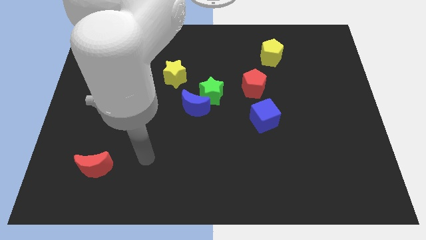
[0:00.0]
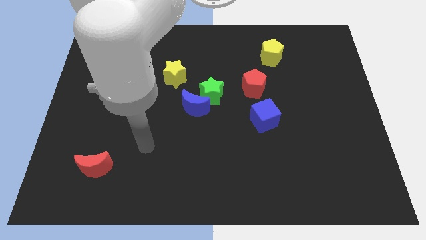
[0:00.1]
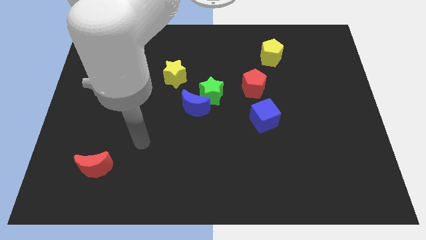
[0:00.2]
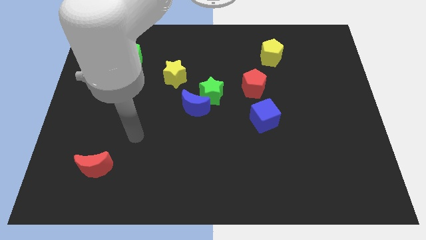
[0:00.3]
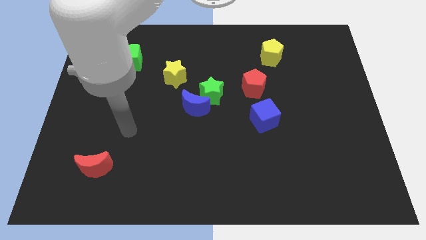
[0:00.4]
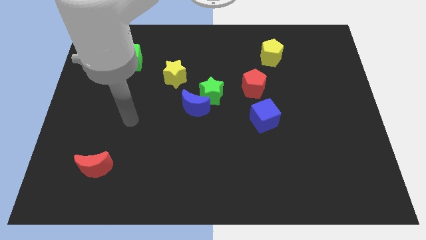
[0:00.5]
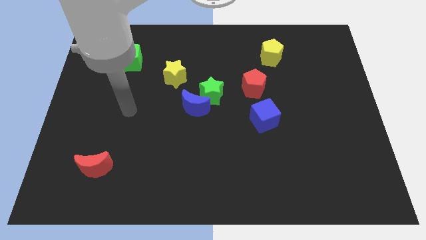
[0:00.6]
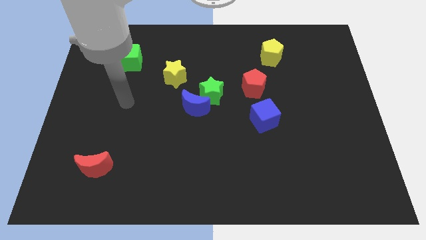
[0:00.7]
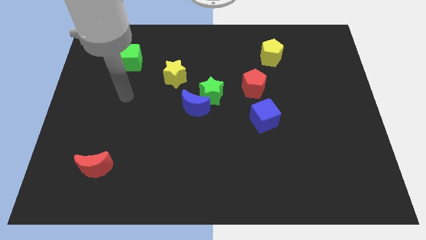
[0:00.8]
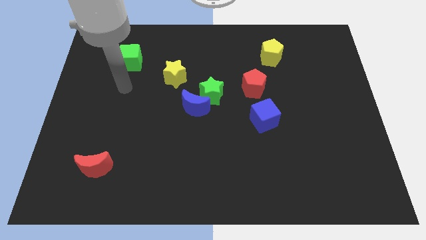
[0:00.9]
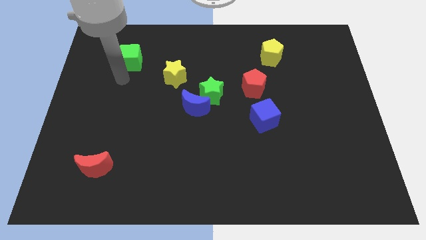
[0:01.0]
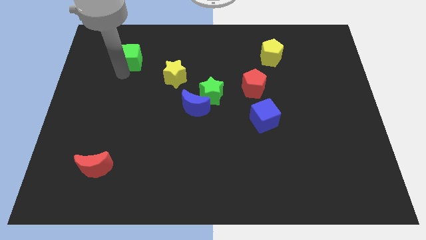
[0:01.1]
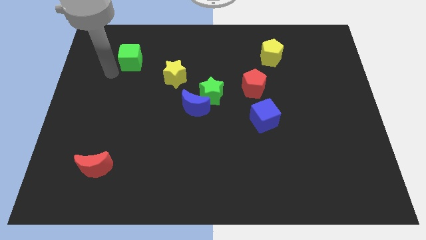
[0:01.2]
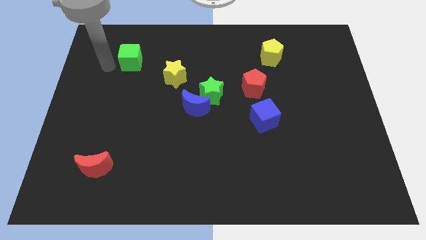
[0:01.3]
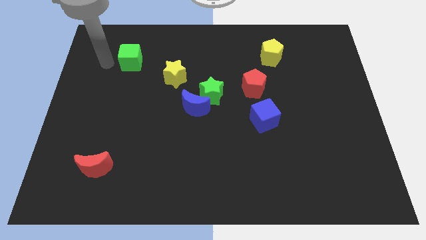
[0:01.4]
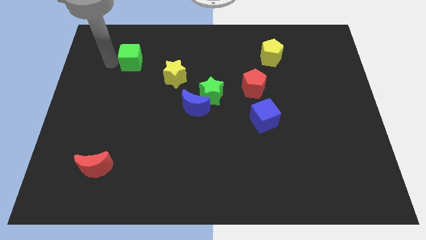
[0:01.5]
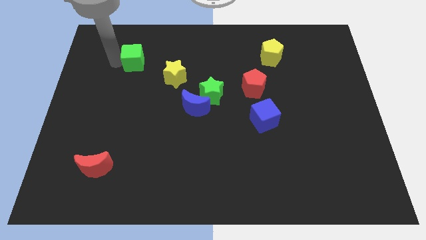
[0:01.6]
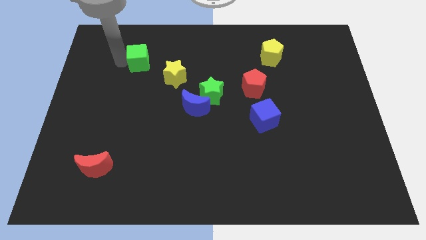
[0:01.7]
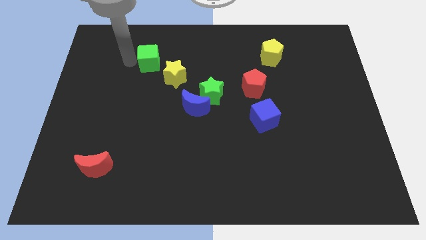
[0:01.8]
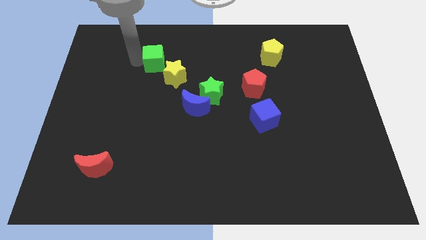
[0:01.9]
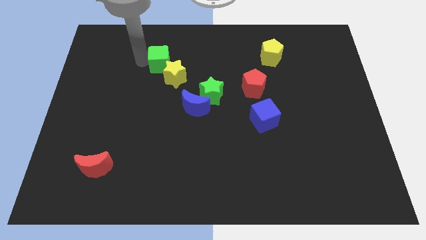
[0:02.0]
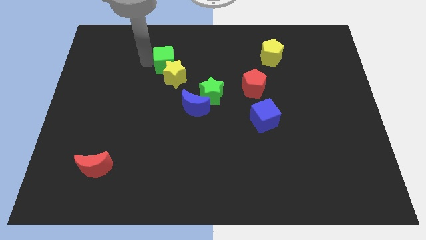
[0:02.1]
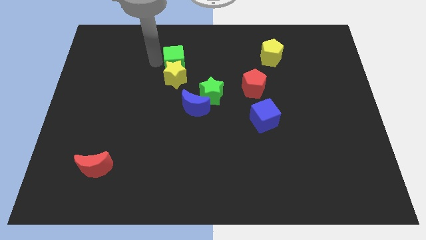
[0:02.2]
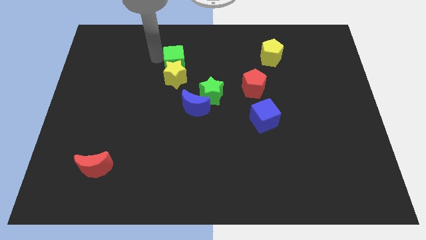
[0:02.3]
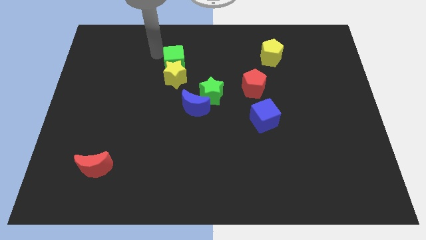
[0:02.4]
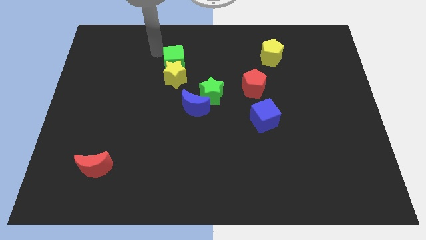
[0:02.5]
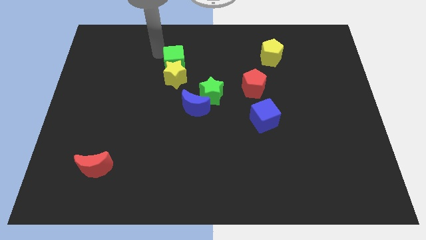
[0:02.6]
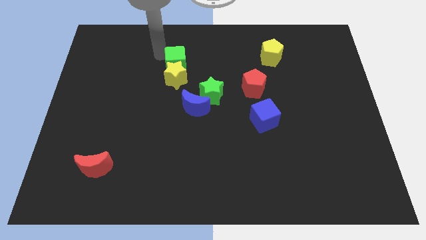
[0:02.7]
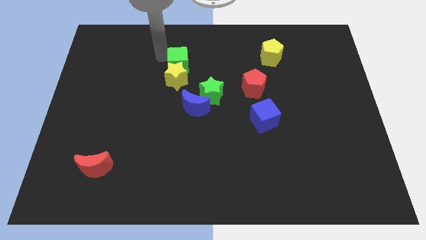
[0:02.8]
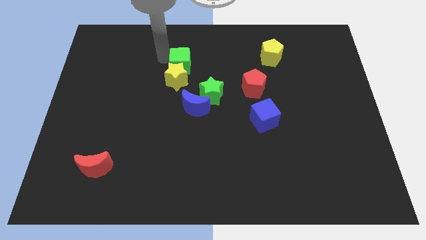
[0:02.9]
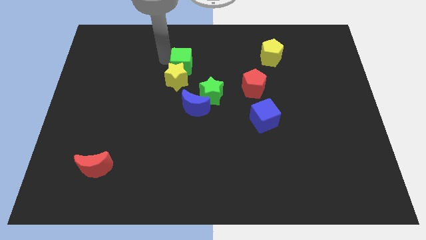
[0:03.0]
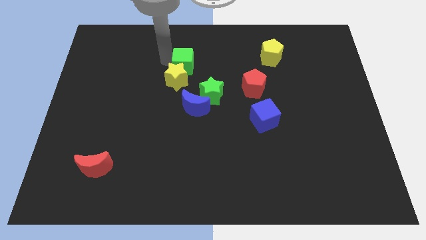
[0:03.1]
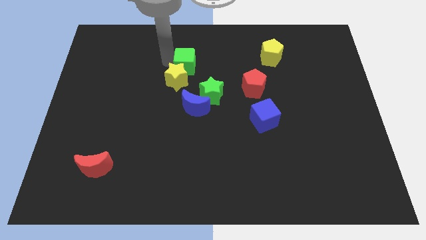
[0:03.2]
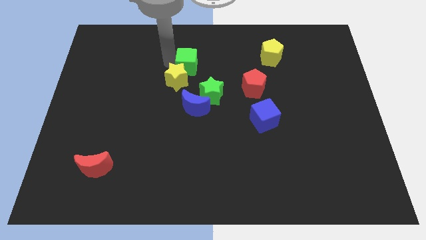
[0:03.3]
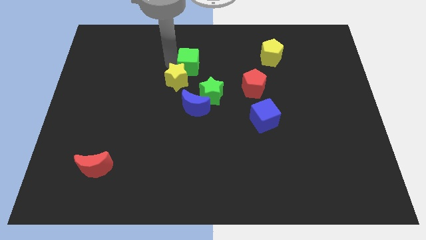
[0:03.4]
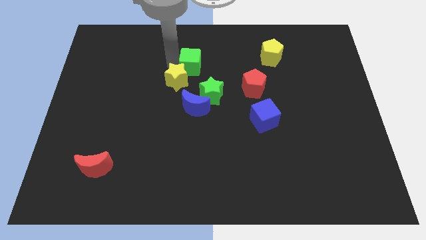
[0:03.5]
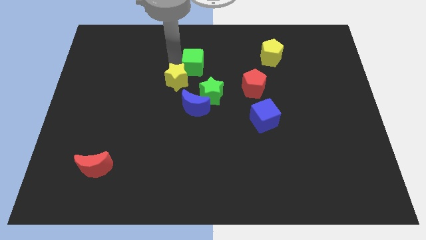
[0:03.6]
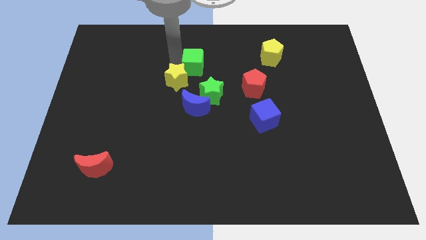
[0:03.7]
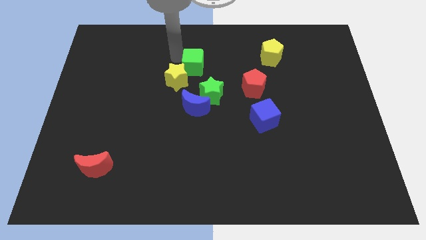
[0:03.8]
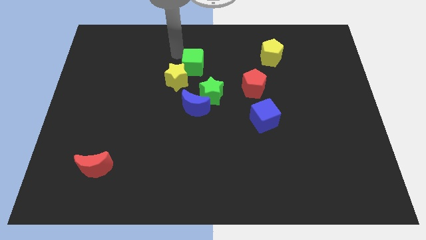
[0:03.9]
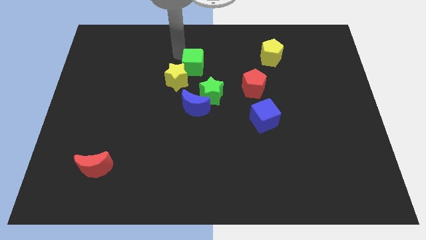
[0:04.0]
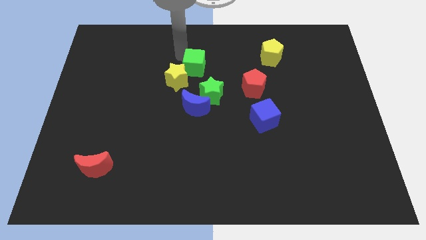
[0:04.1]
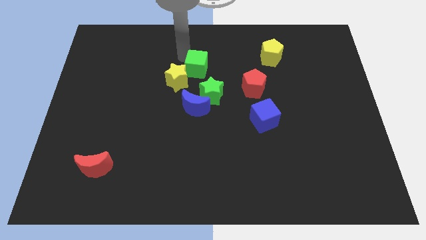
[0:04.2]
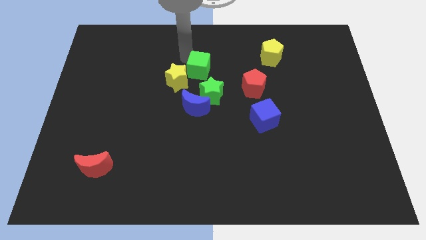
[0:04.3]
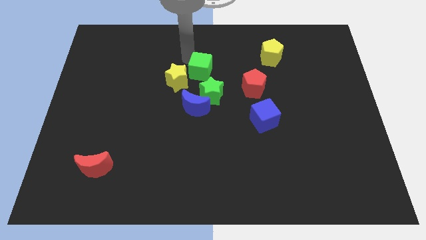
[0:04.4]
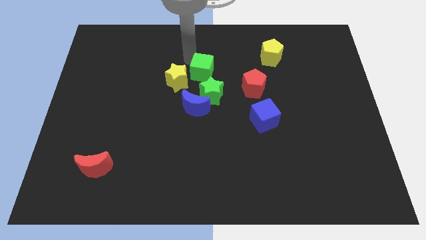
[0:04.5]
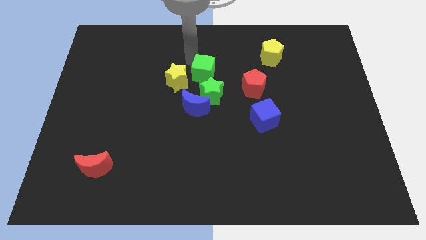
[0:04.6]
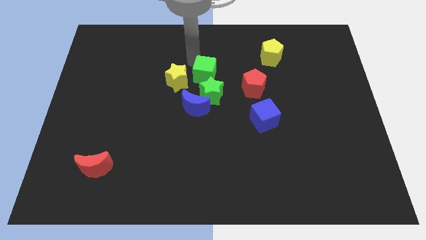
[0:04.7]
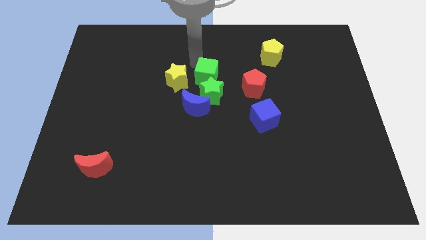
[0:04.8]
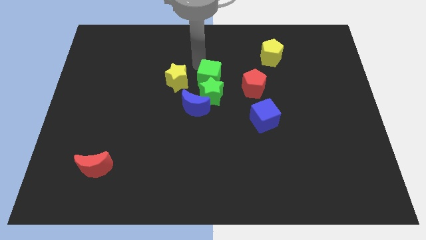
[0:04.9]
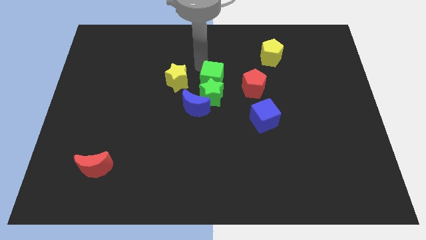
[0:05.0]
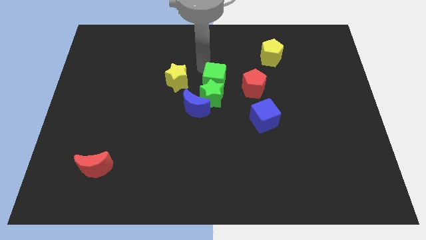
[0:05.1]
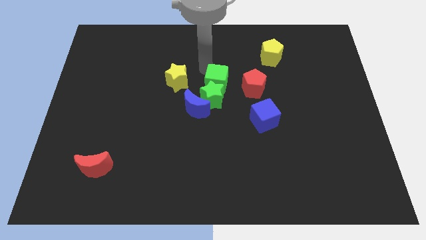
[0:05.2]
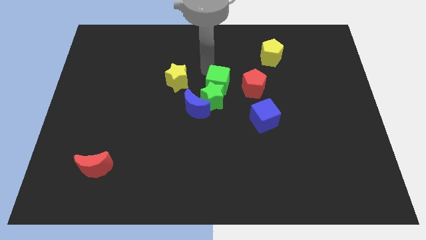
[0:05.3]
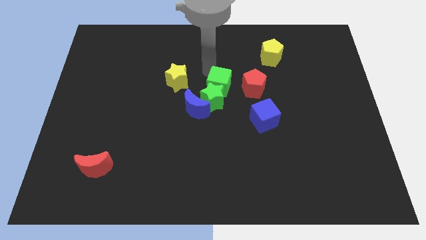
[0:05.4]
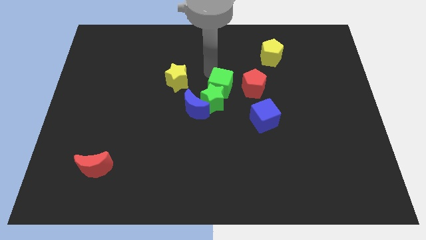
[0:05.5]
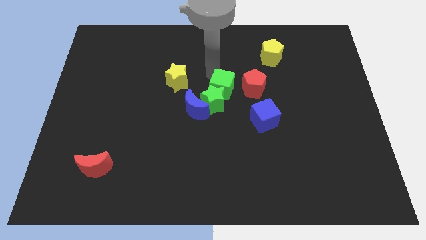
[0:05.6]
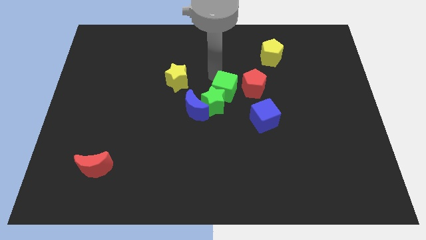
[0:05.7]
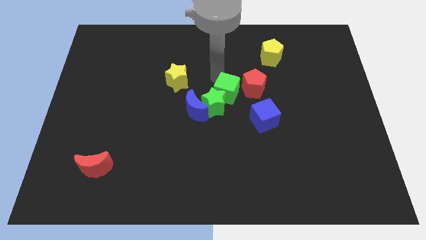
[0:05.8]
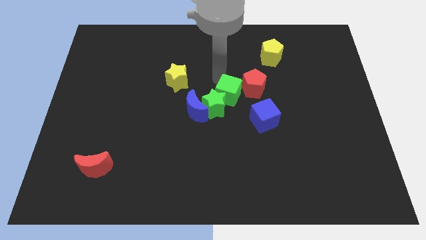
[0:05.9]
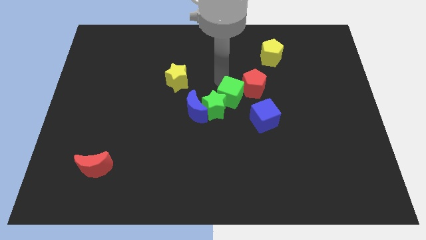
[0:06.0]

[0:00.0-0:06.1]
slide the green cube to the right of the blue moon

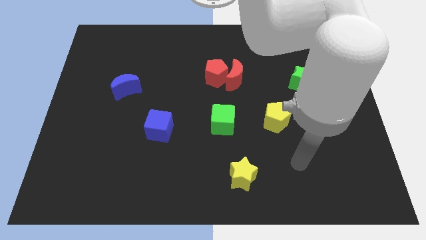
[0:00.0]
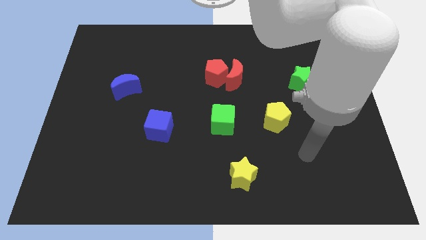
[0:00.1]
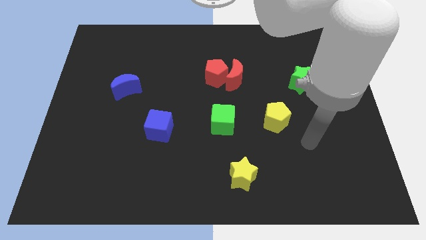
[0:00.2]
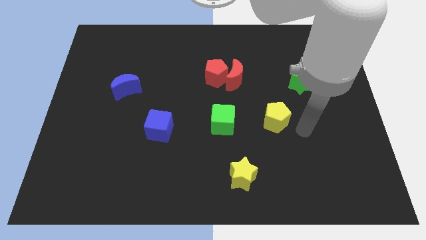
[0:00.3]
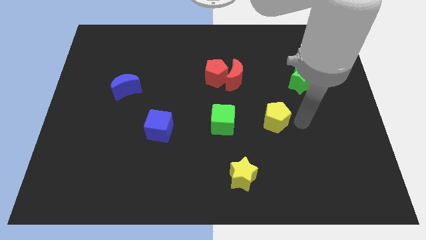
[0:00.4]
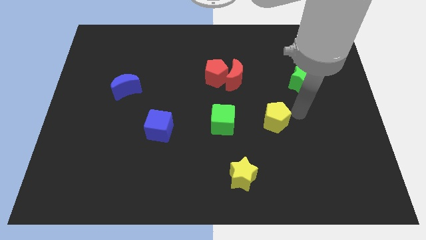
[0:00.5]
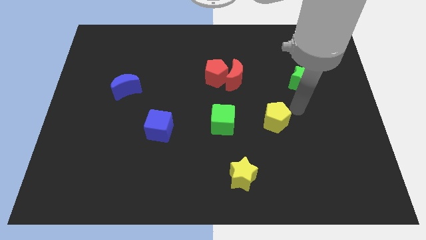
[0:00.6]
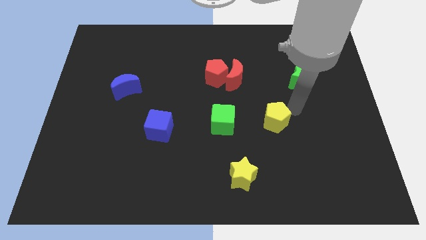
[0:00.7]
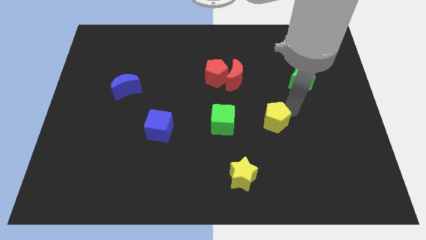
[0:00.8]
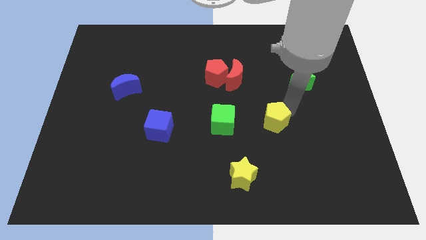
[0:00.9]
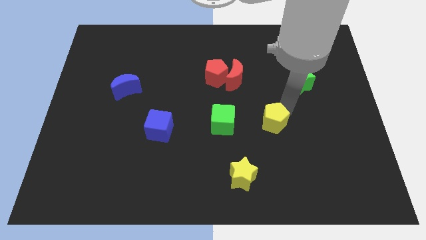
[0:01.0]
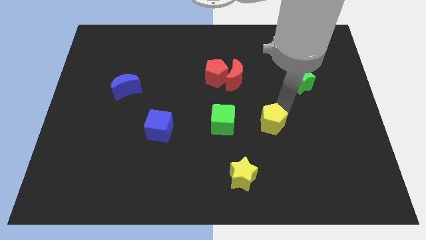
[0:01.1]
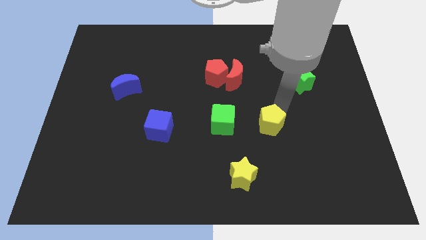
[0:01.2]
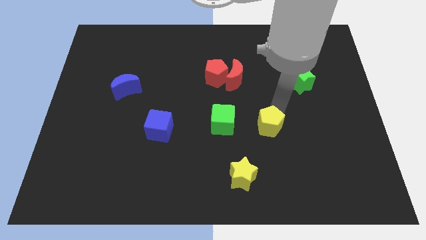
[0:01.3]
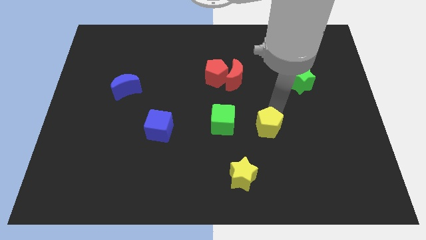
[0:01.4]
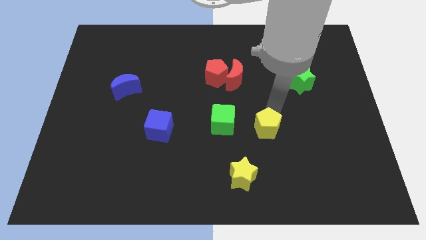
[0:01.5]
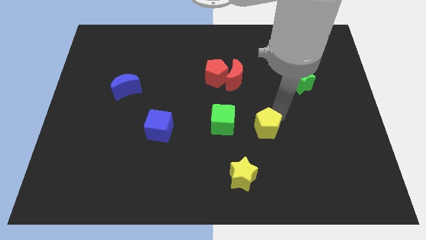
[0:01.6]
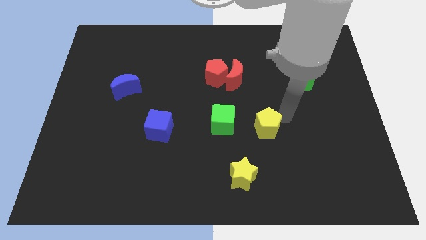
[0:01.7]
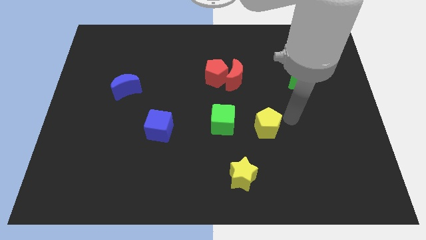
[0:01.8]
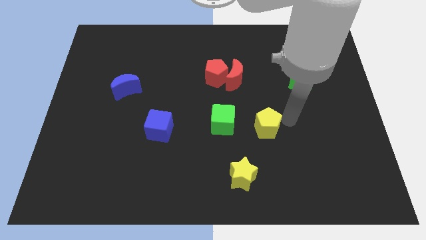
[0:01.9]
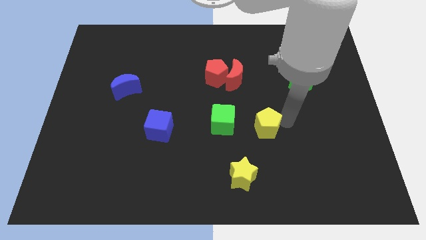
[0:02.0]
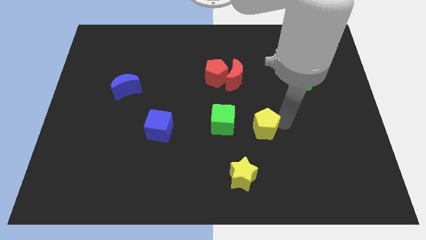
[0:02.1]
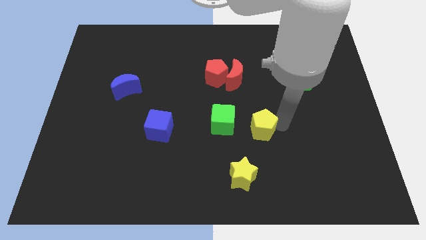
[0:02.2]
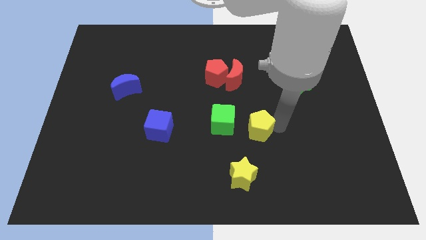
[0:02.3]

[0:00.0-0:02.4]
slide the yellow pentagon to the top of the yellow star
